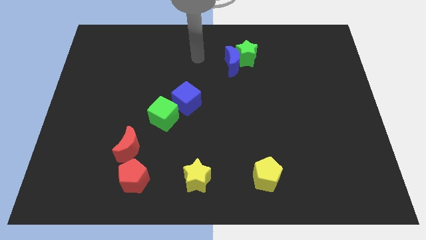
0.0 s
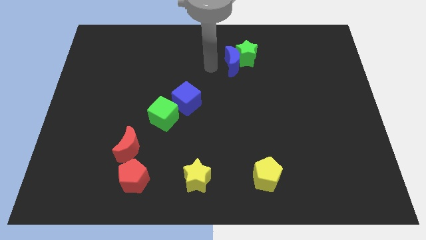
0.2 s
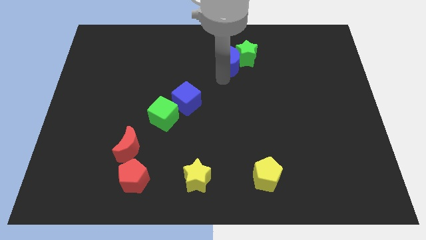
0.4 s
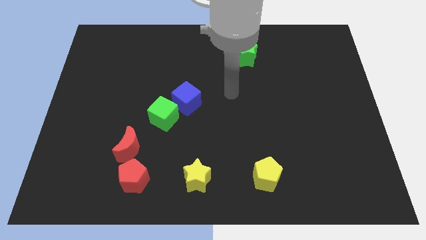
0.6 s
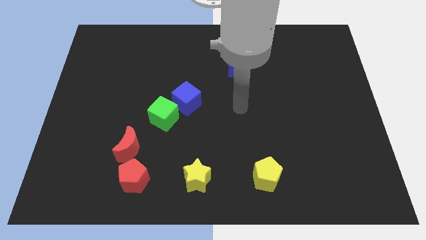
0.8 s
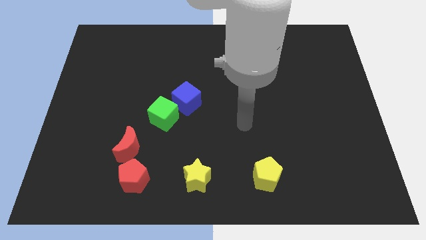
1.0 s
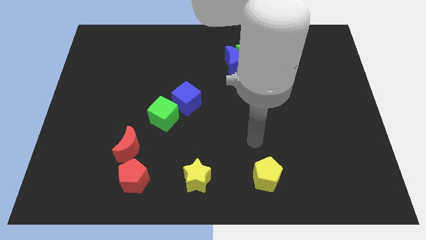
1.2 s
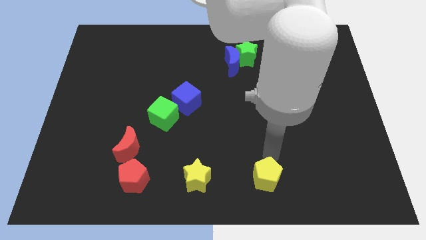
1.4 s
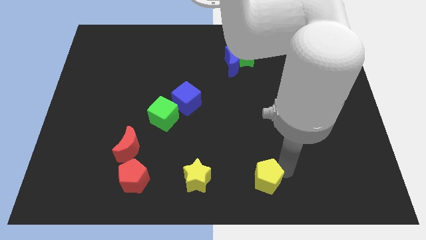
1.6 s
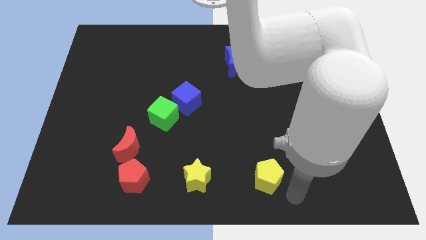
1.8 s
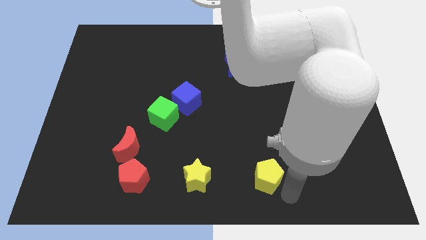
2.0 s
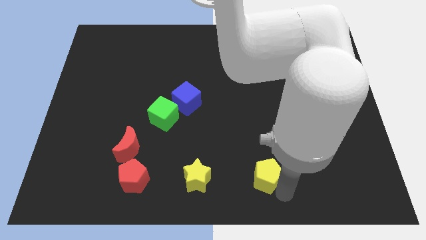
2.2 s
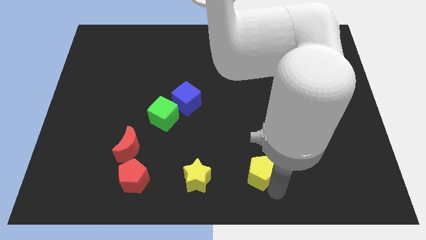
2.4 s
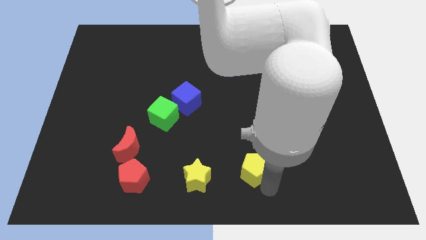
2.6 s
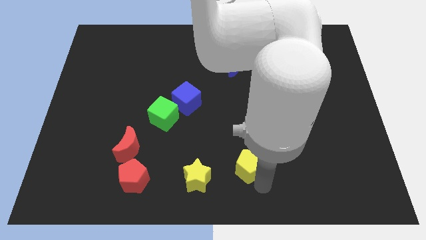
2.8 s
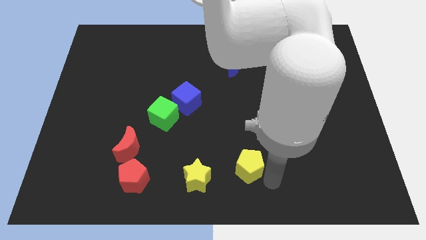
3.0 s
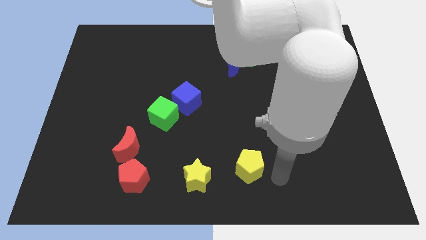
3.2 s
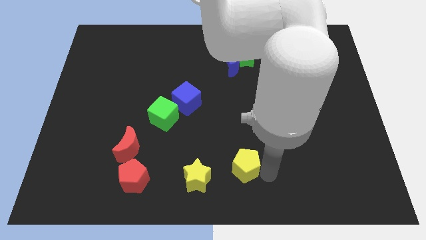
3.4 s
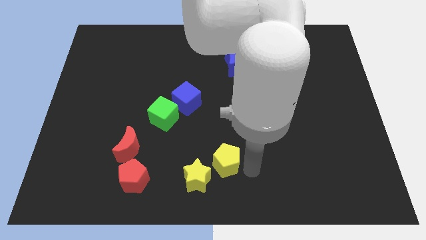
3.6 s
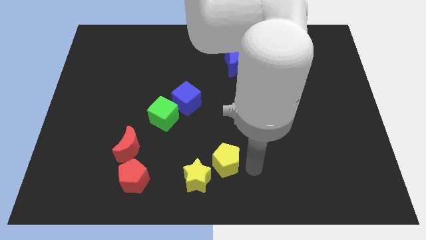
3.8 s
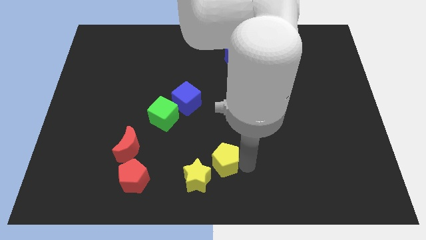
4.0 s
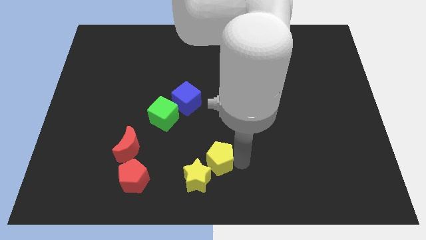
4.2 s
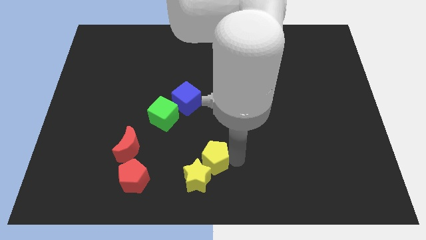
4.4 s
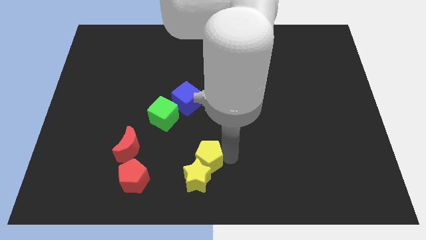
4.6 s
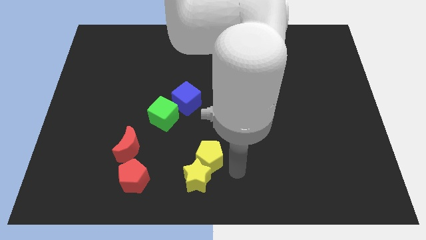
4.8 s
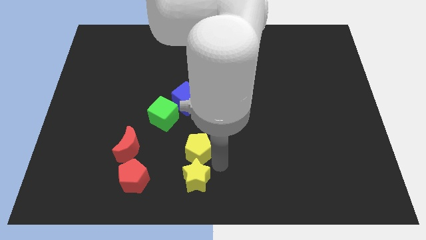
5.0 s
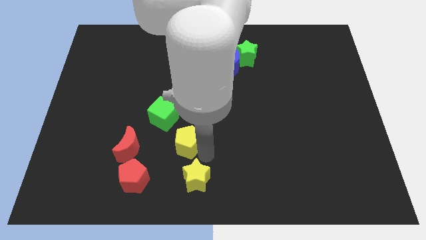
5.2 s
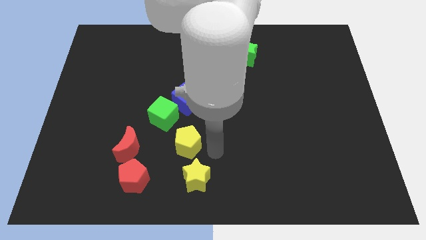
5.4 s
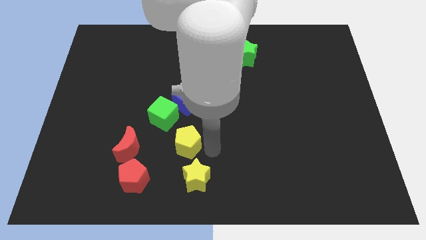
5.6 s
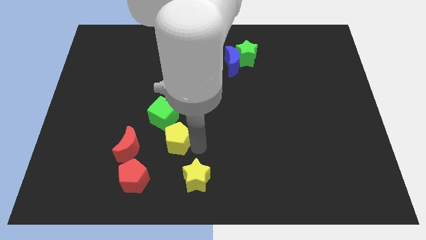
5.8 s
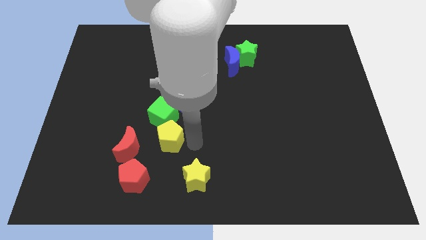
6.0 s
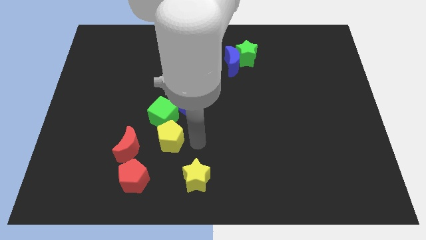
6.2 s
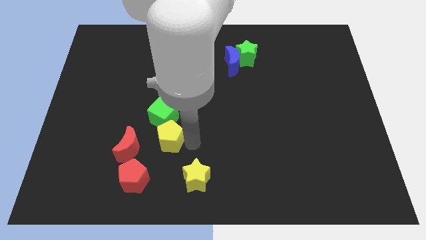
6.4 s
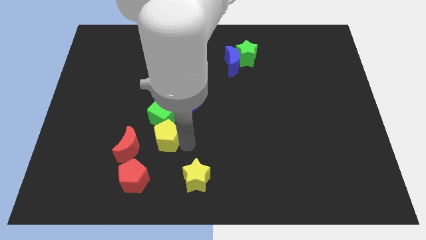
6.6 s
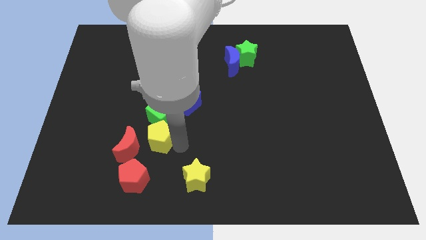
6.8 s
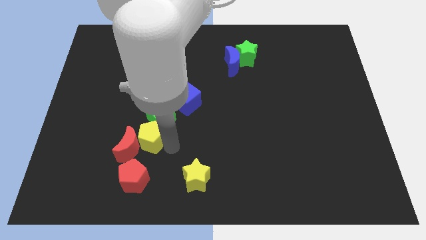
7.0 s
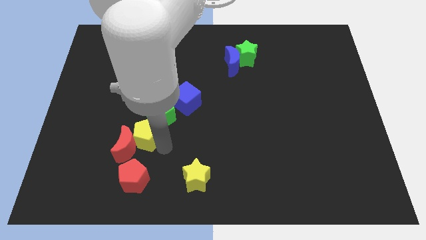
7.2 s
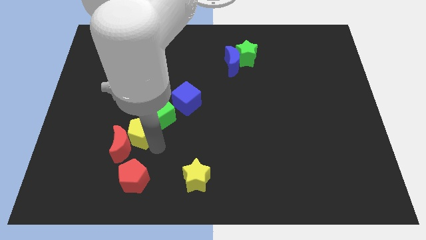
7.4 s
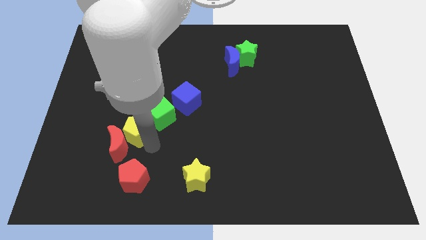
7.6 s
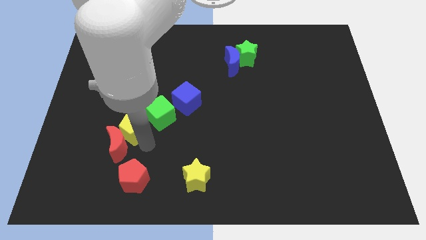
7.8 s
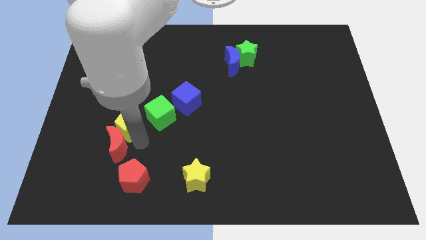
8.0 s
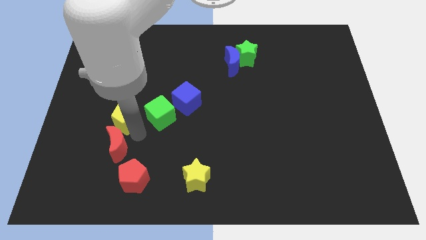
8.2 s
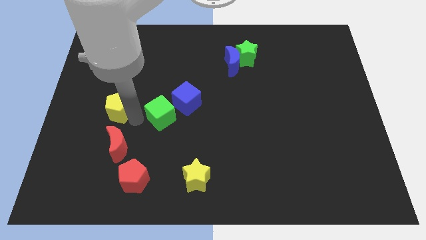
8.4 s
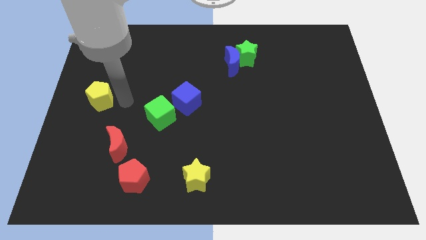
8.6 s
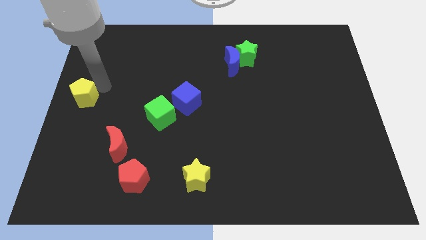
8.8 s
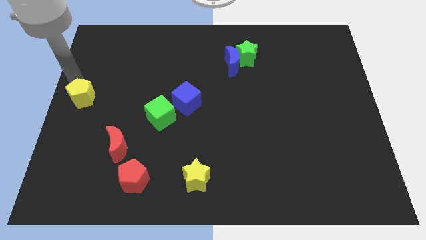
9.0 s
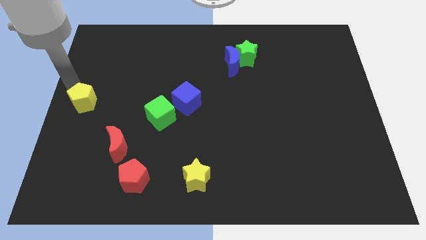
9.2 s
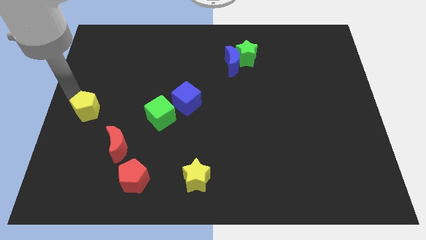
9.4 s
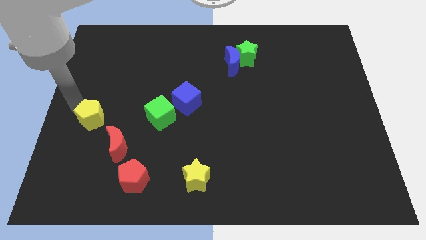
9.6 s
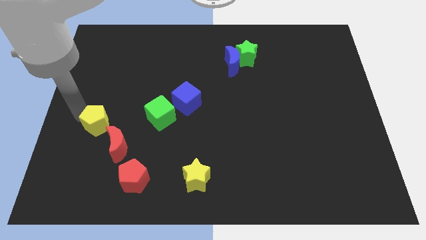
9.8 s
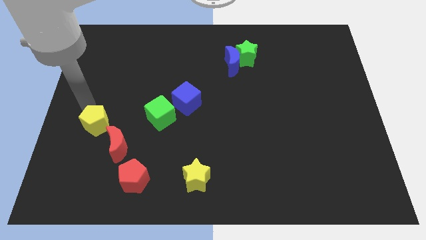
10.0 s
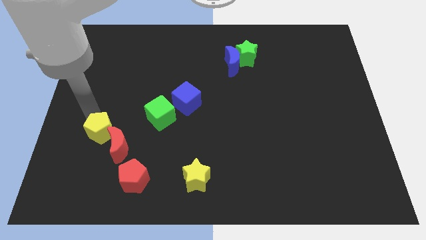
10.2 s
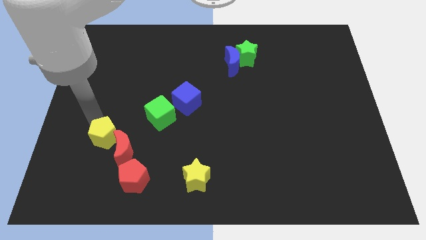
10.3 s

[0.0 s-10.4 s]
slide the yellow pentagon to the top left of the red pentagon

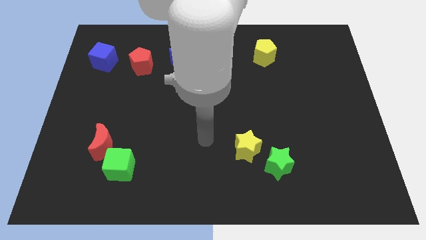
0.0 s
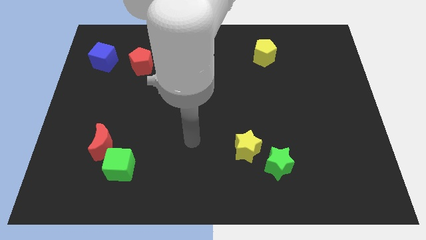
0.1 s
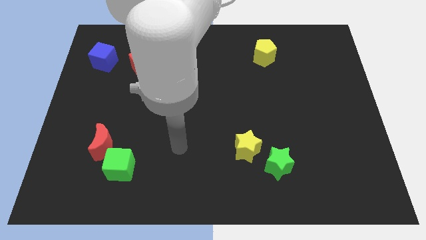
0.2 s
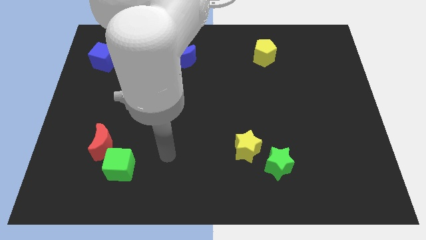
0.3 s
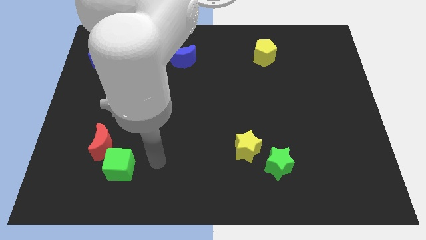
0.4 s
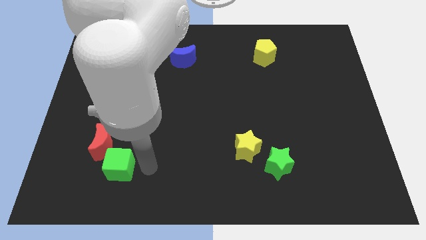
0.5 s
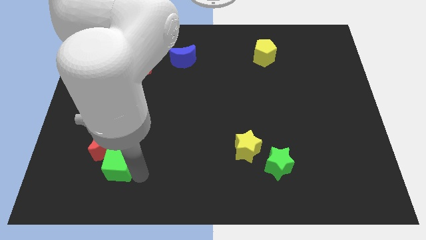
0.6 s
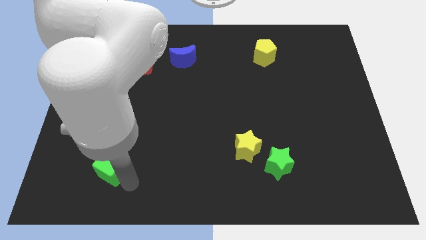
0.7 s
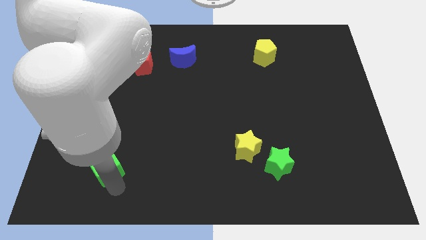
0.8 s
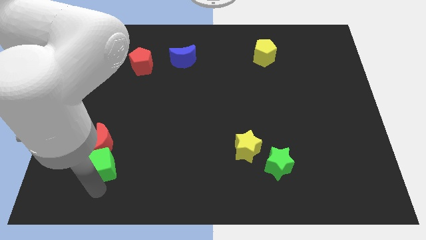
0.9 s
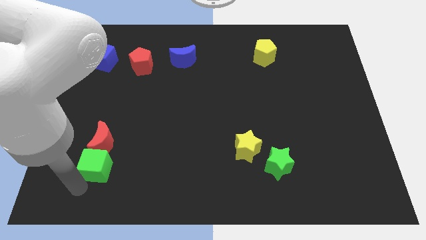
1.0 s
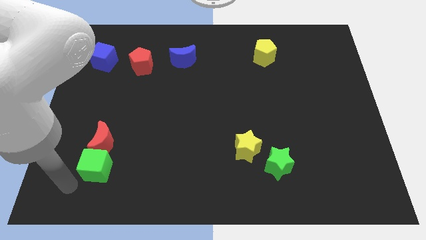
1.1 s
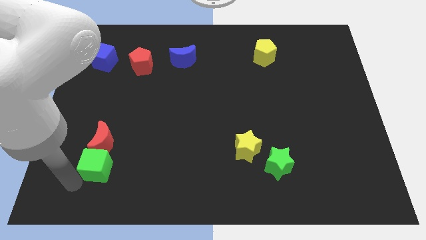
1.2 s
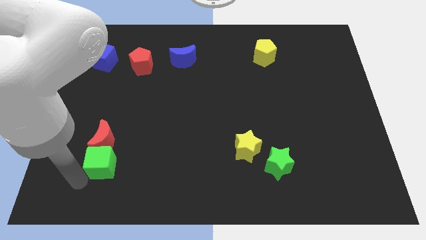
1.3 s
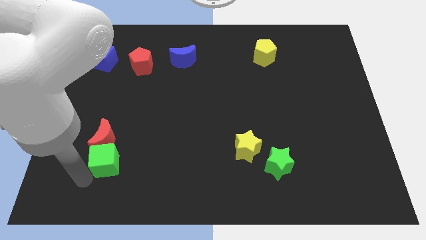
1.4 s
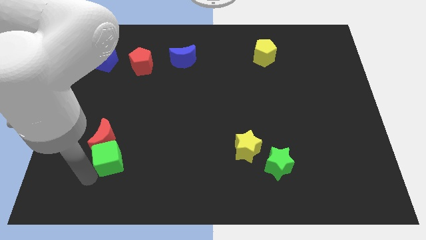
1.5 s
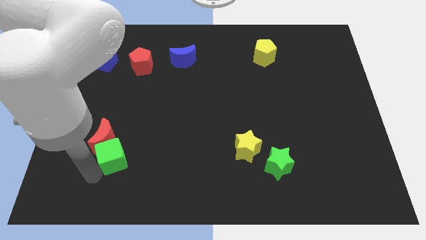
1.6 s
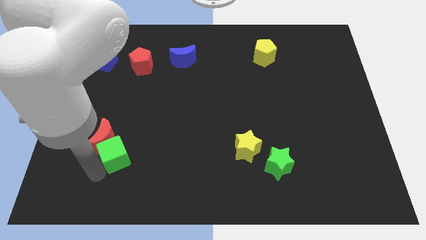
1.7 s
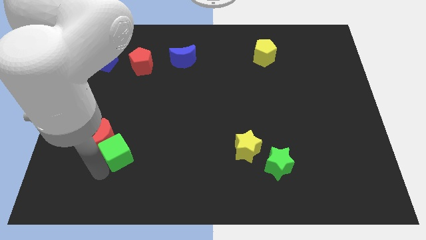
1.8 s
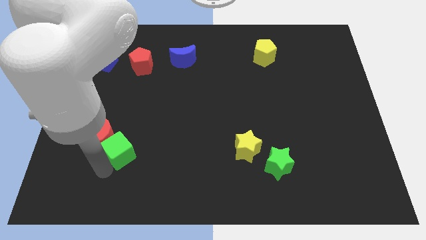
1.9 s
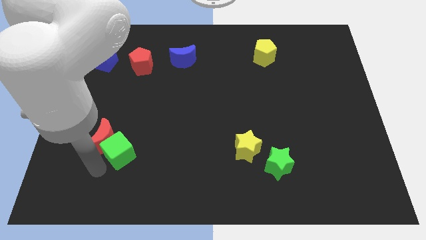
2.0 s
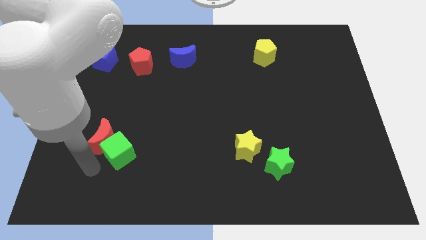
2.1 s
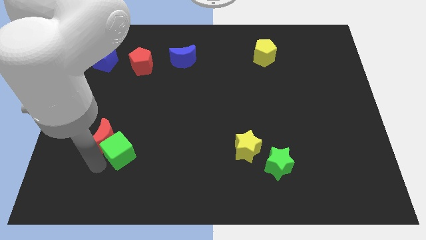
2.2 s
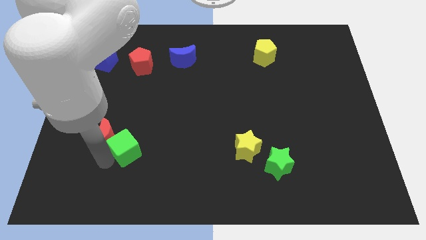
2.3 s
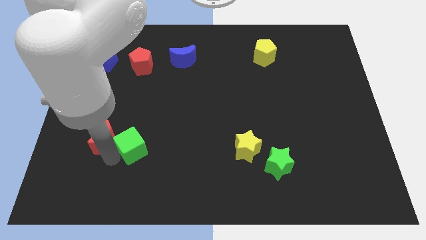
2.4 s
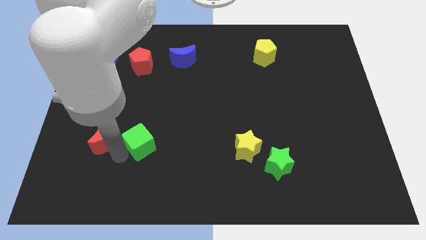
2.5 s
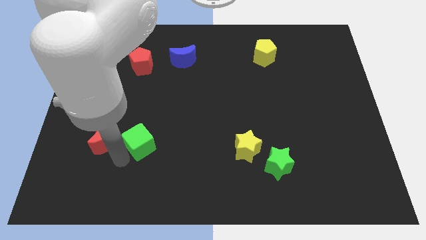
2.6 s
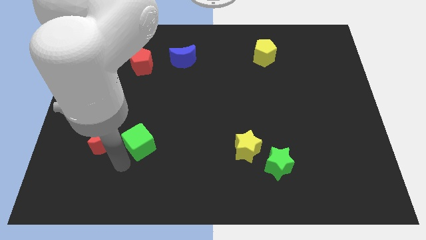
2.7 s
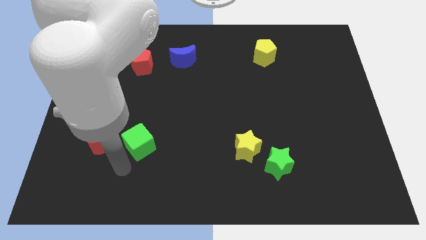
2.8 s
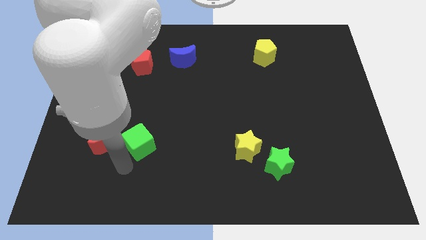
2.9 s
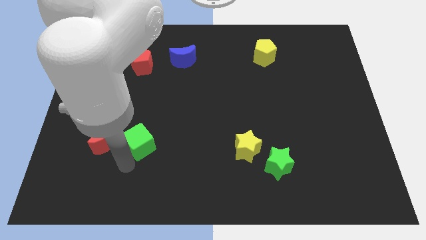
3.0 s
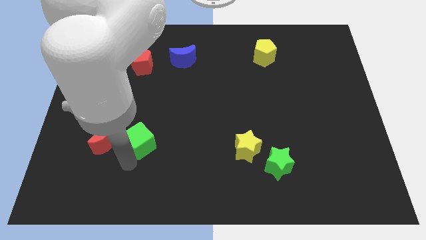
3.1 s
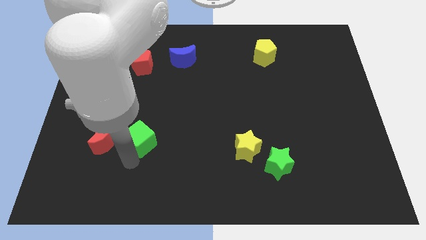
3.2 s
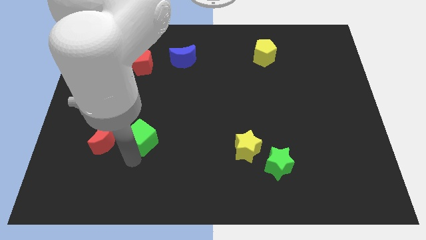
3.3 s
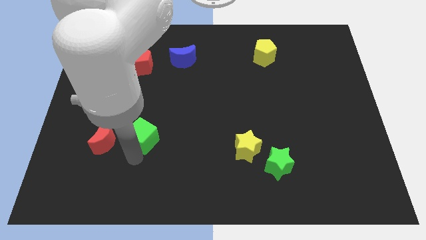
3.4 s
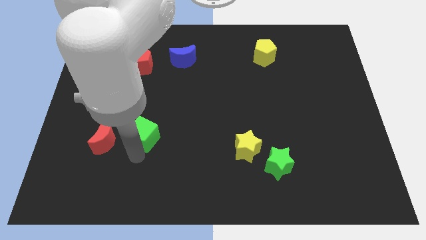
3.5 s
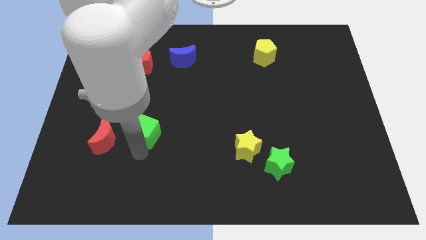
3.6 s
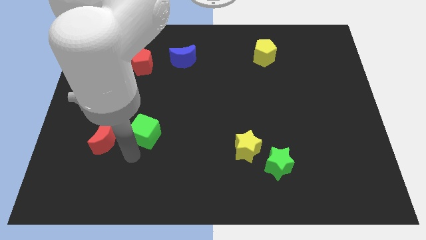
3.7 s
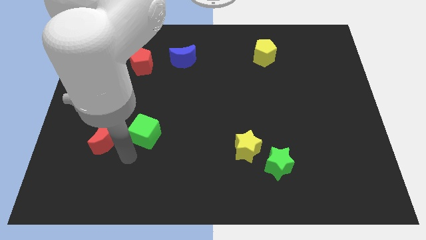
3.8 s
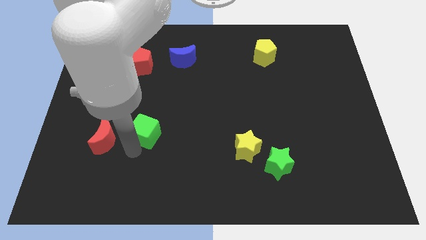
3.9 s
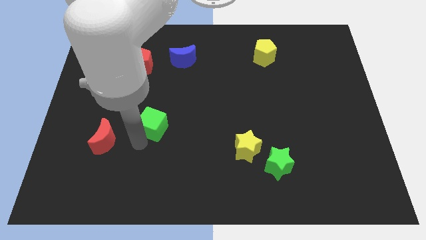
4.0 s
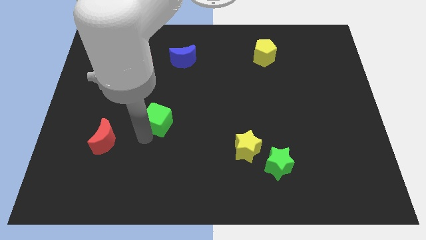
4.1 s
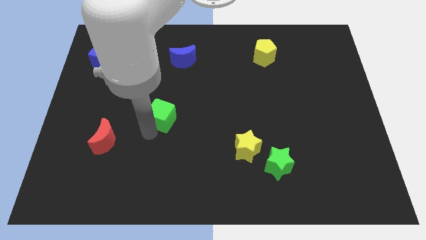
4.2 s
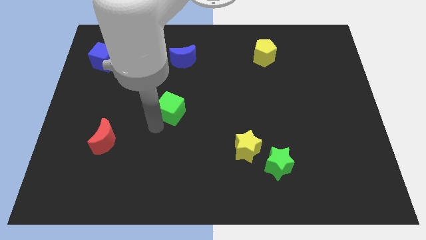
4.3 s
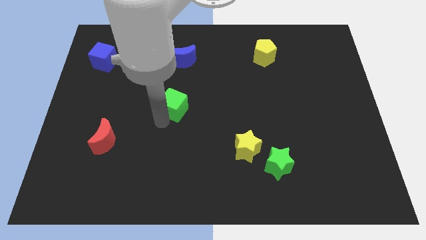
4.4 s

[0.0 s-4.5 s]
slide the green cube to the bottom of the blue moon
